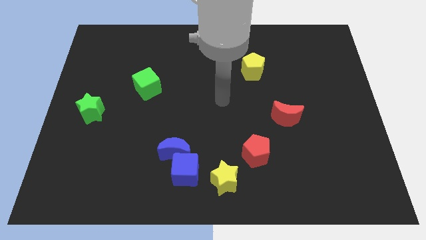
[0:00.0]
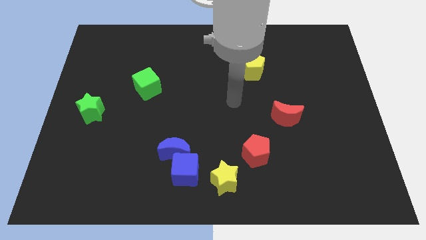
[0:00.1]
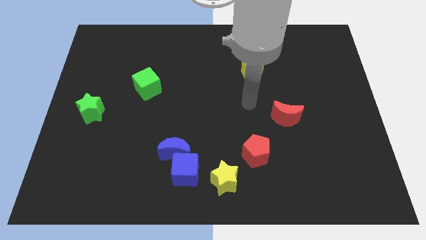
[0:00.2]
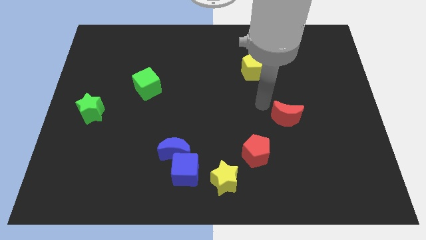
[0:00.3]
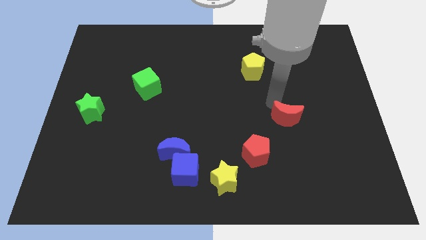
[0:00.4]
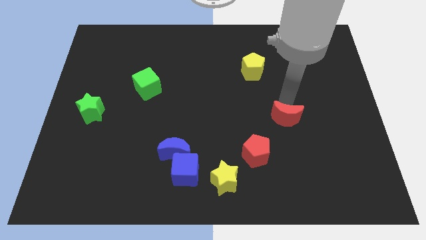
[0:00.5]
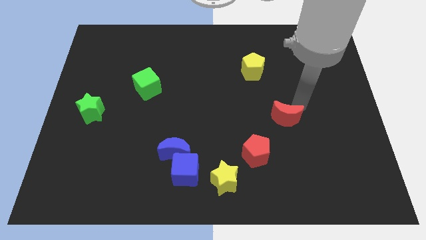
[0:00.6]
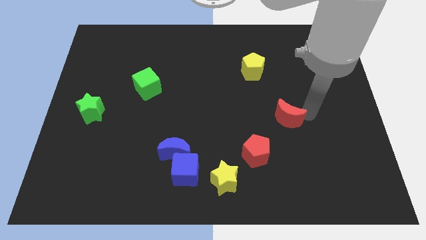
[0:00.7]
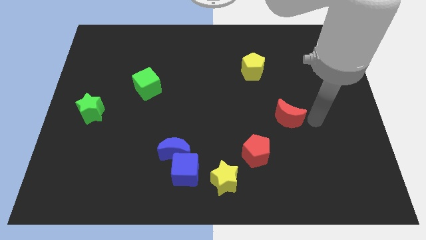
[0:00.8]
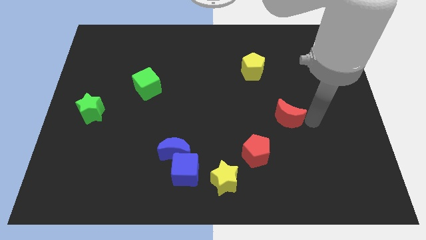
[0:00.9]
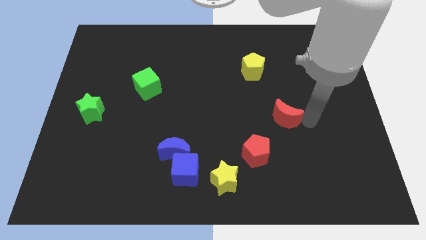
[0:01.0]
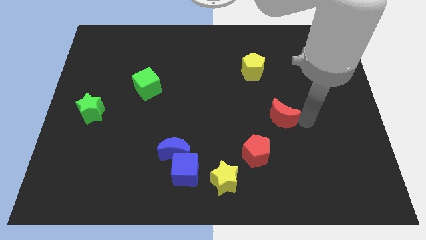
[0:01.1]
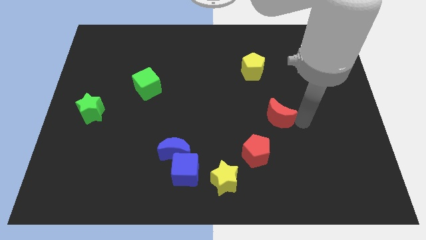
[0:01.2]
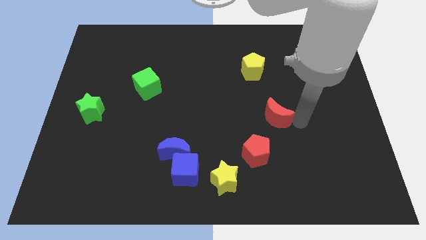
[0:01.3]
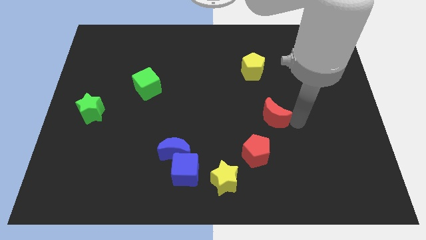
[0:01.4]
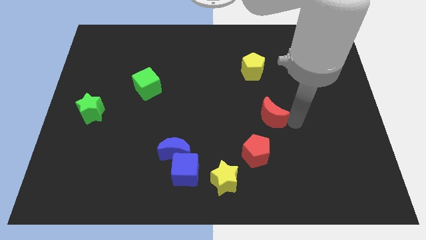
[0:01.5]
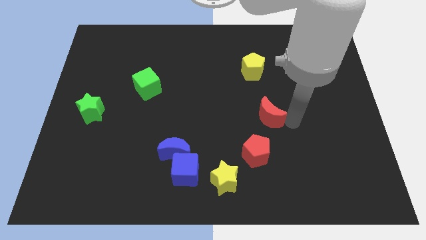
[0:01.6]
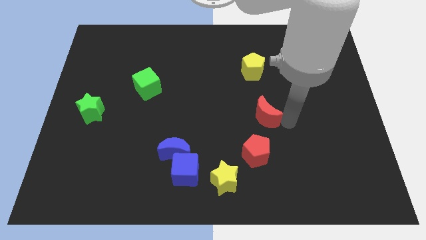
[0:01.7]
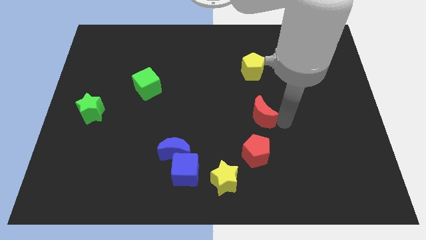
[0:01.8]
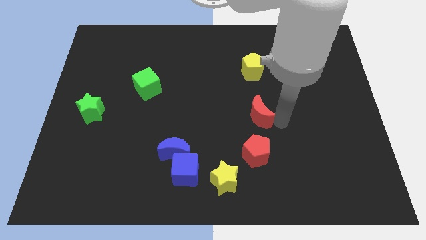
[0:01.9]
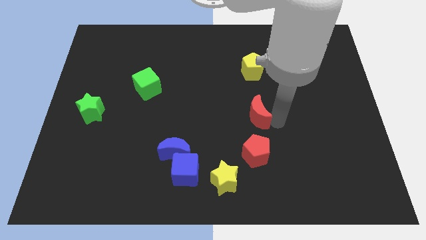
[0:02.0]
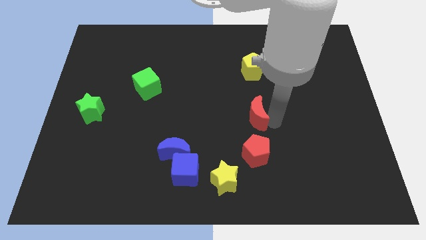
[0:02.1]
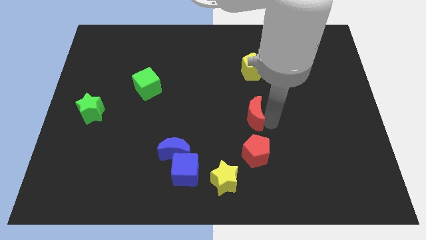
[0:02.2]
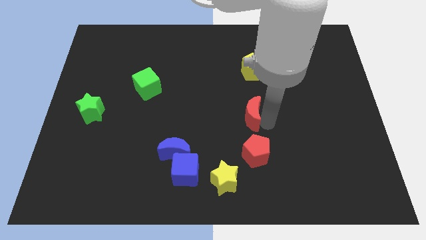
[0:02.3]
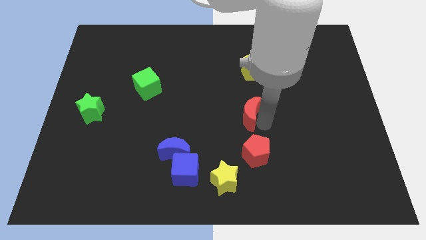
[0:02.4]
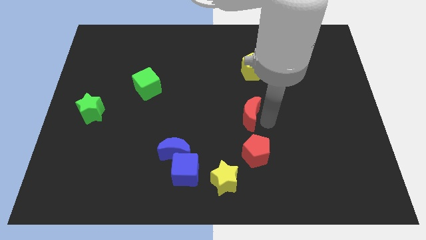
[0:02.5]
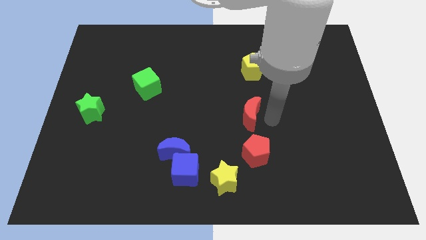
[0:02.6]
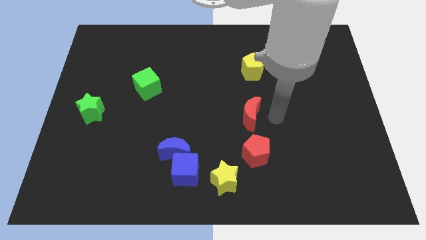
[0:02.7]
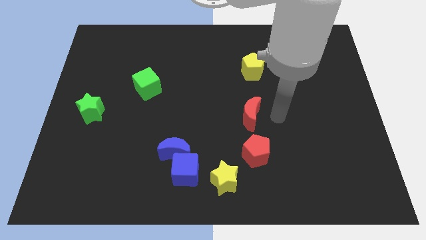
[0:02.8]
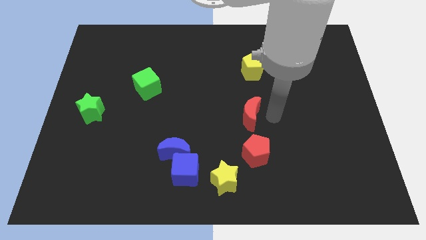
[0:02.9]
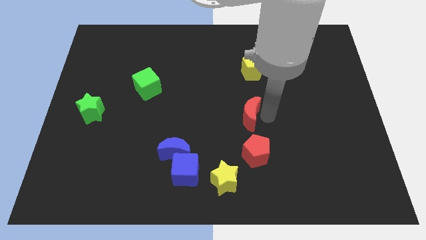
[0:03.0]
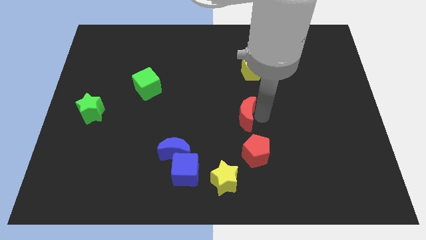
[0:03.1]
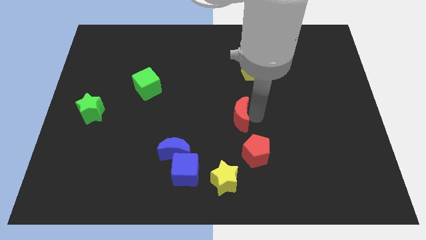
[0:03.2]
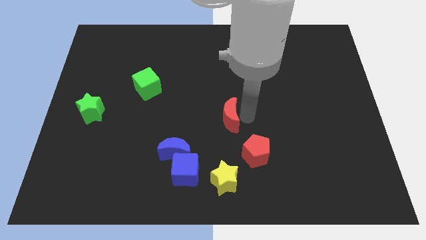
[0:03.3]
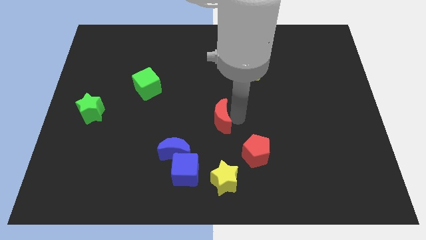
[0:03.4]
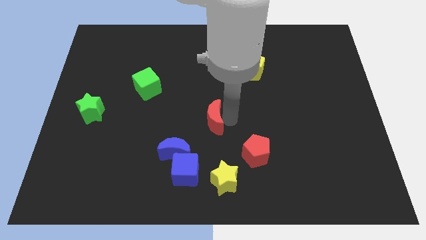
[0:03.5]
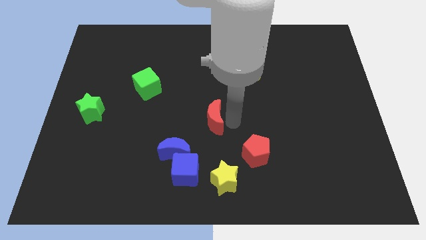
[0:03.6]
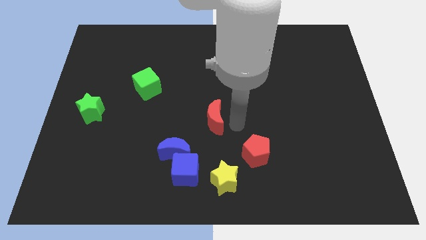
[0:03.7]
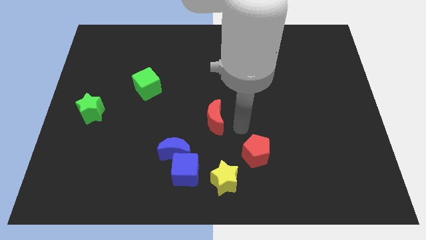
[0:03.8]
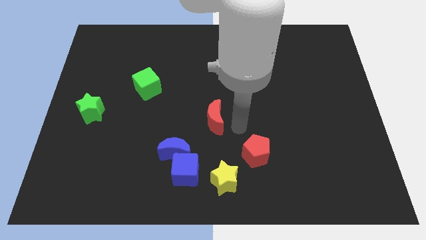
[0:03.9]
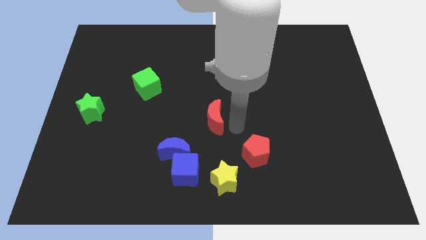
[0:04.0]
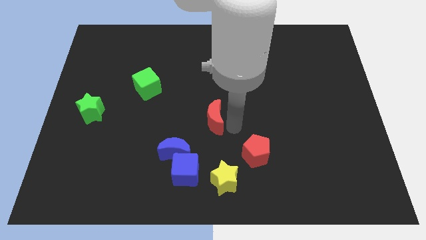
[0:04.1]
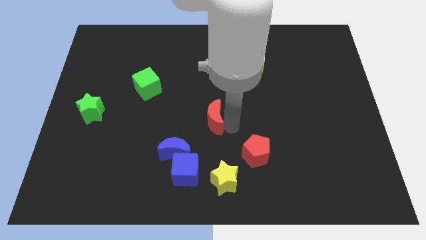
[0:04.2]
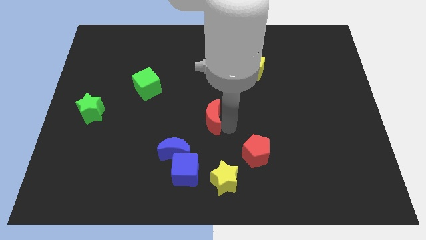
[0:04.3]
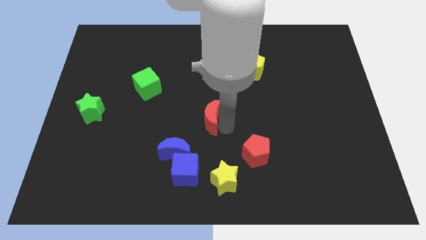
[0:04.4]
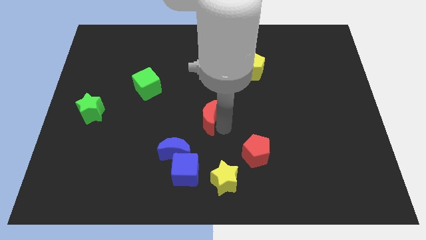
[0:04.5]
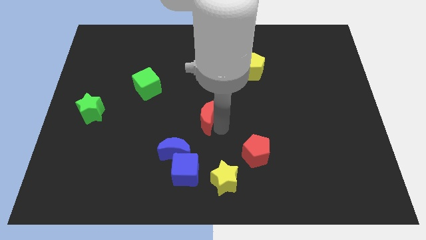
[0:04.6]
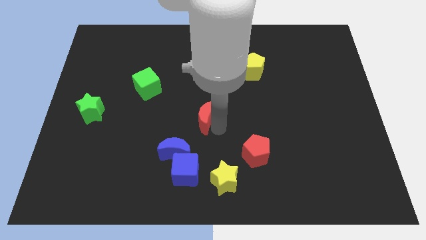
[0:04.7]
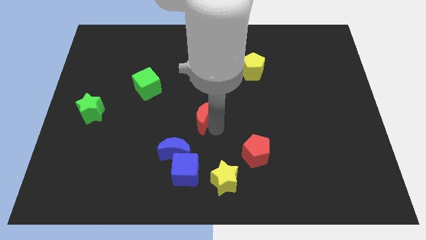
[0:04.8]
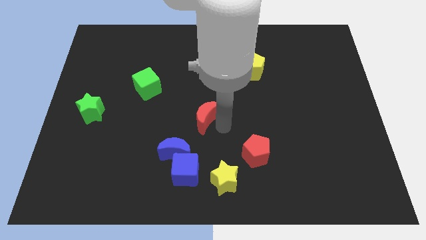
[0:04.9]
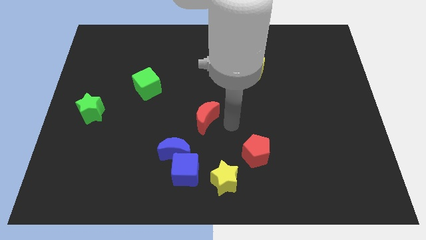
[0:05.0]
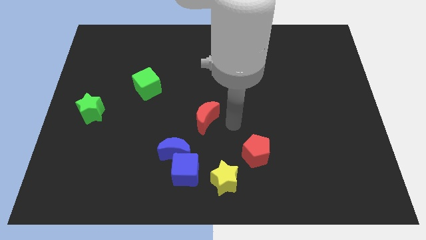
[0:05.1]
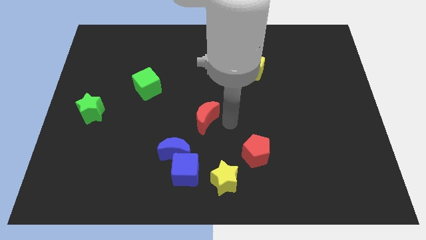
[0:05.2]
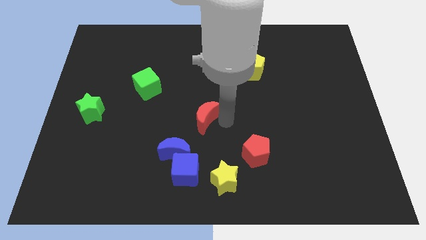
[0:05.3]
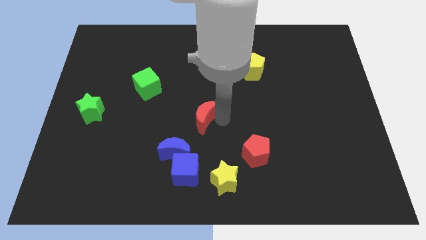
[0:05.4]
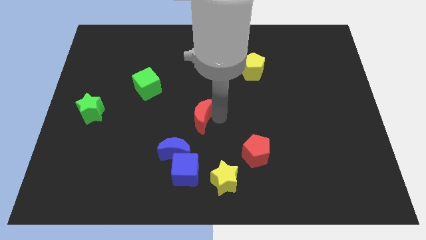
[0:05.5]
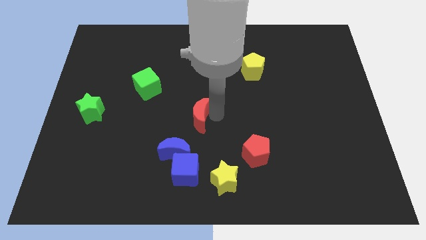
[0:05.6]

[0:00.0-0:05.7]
slide the red moon to the left

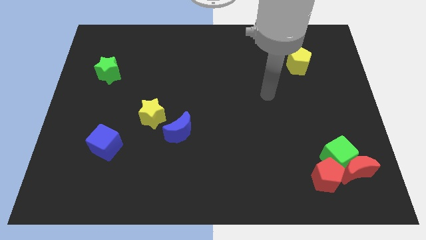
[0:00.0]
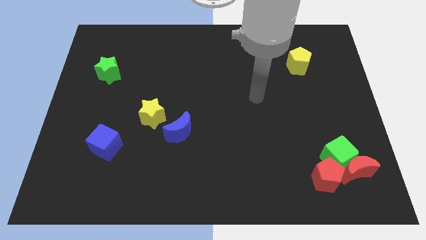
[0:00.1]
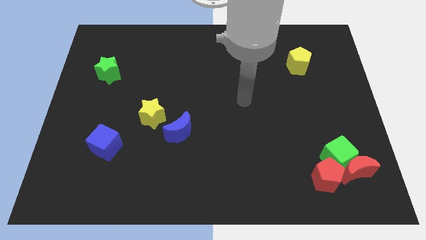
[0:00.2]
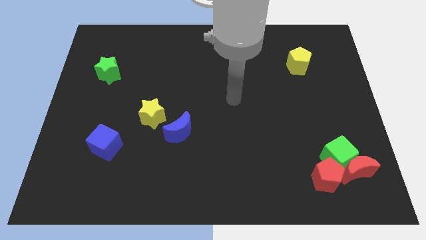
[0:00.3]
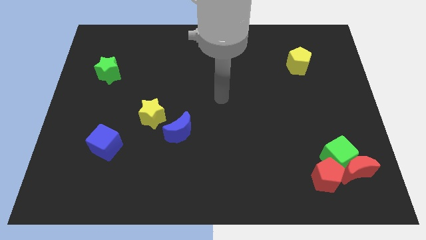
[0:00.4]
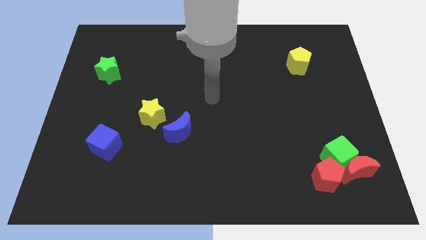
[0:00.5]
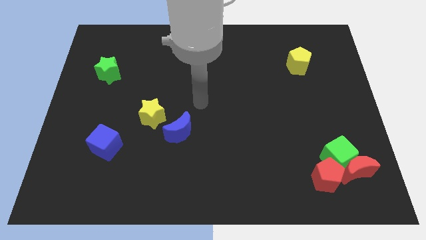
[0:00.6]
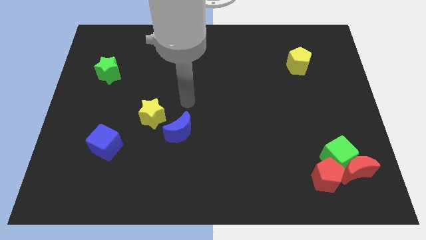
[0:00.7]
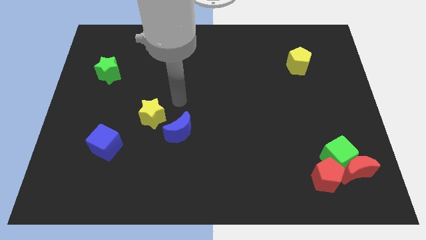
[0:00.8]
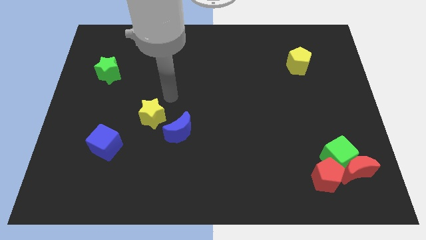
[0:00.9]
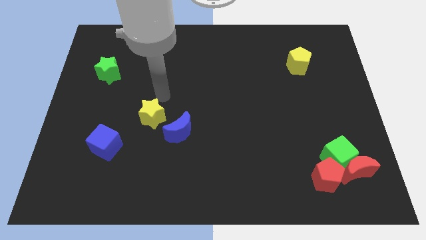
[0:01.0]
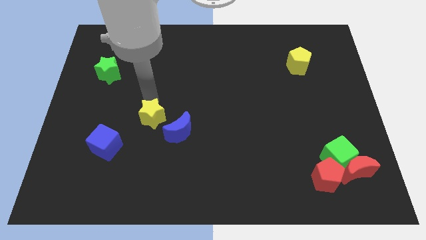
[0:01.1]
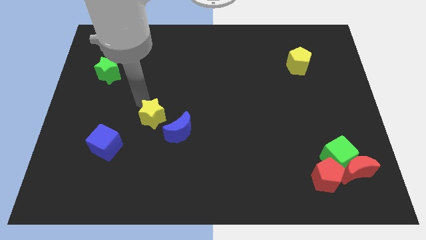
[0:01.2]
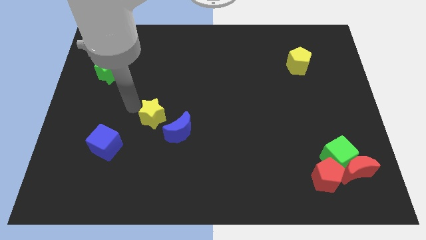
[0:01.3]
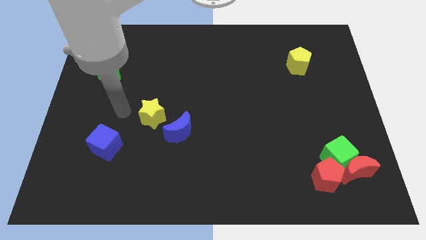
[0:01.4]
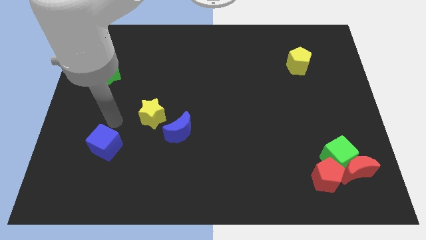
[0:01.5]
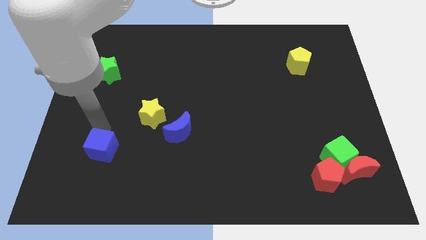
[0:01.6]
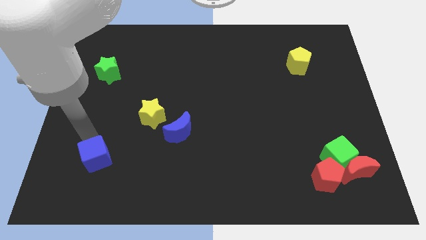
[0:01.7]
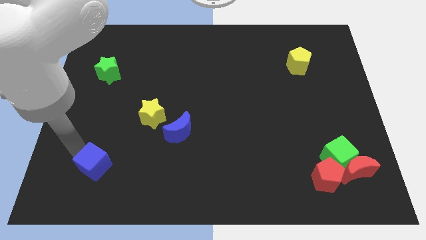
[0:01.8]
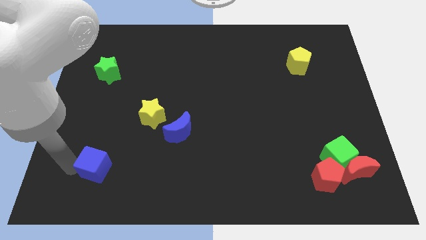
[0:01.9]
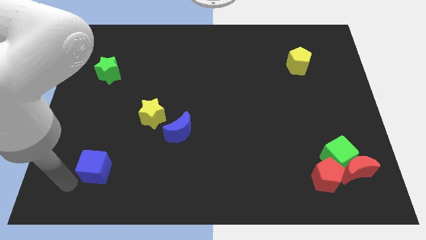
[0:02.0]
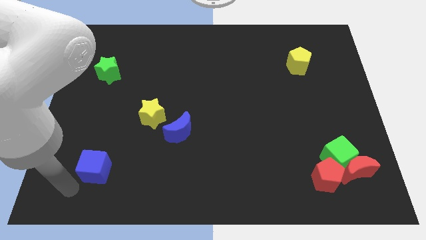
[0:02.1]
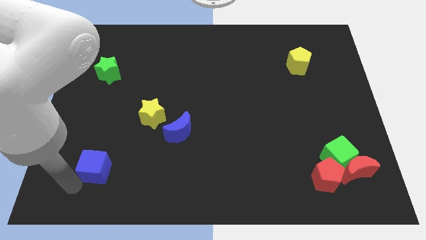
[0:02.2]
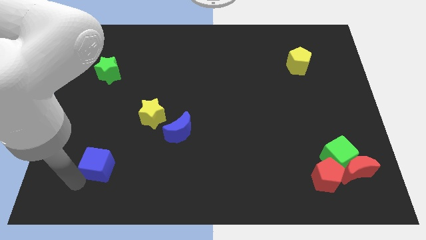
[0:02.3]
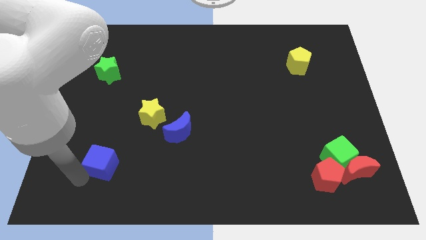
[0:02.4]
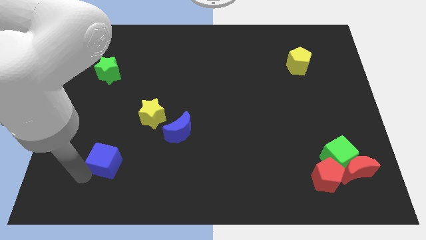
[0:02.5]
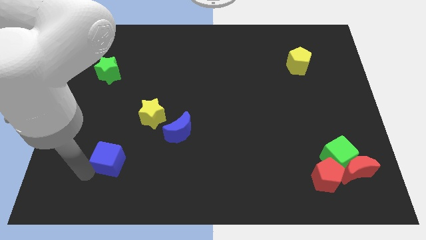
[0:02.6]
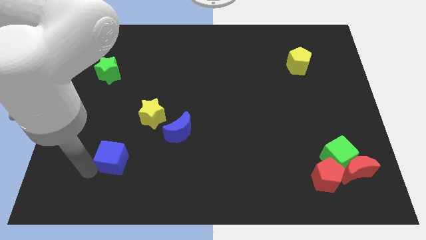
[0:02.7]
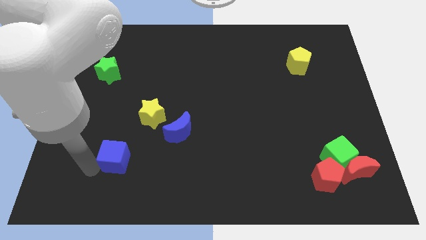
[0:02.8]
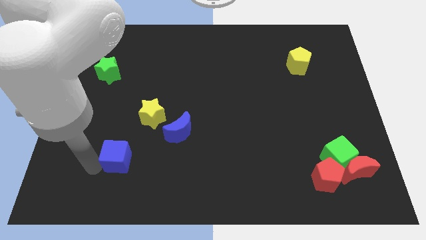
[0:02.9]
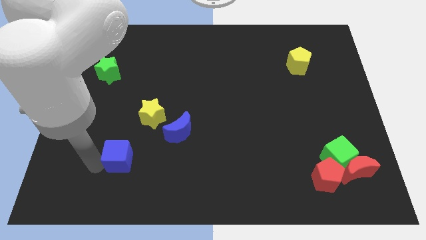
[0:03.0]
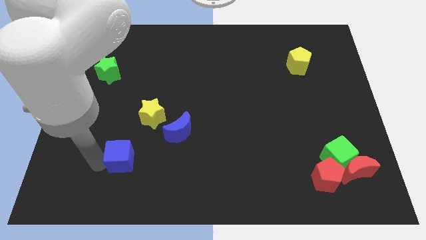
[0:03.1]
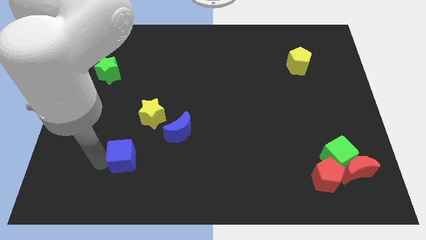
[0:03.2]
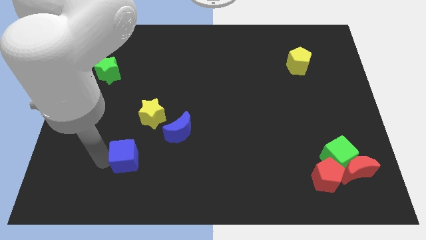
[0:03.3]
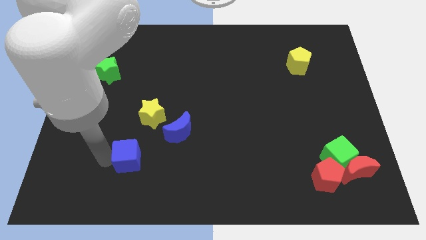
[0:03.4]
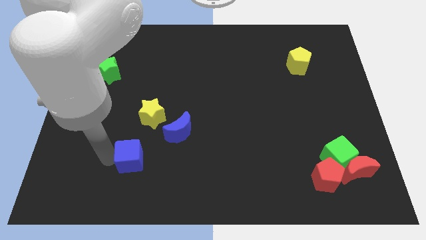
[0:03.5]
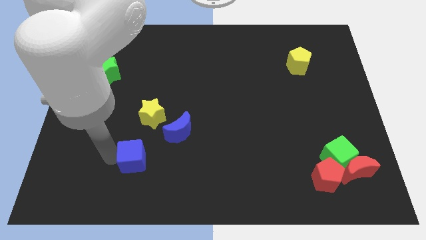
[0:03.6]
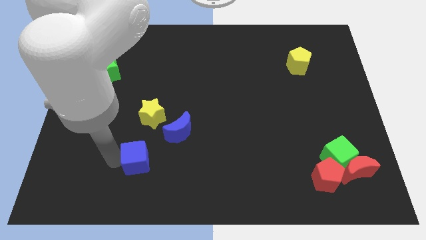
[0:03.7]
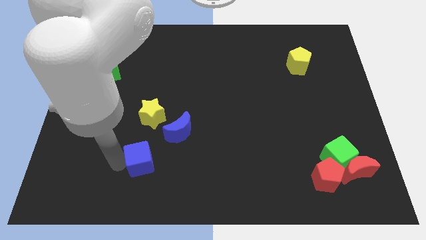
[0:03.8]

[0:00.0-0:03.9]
slide the blue cube to the right somewhat
